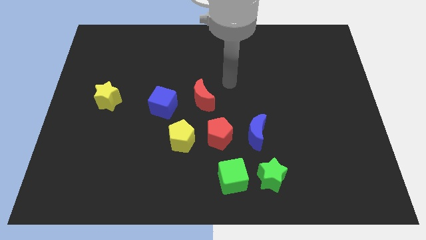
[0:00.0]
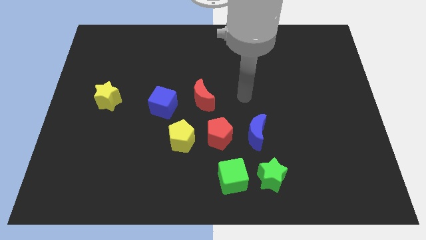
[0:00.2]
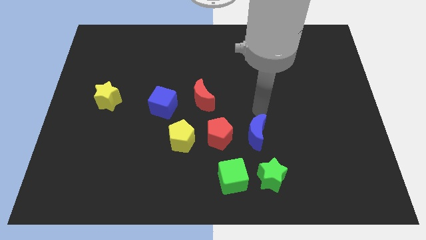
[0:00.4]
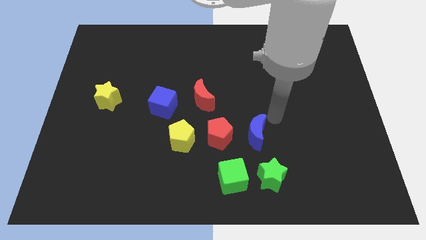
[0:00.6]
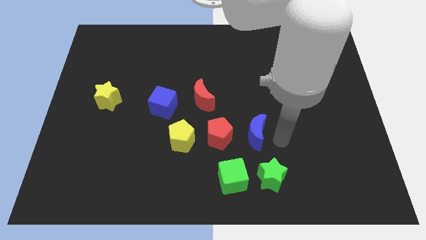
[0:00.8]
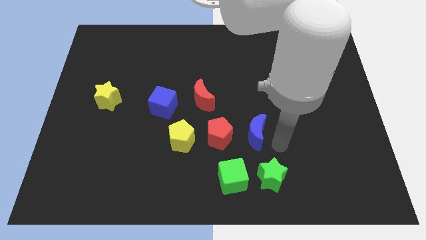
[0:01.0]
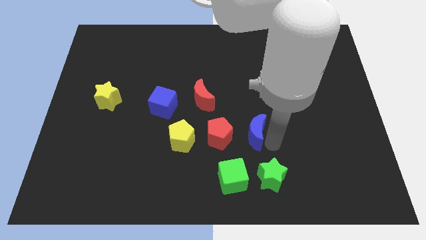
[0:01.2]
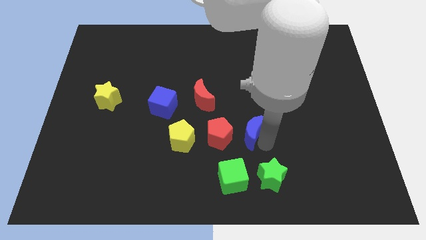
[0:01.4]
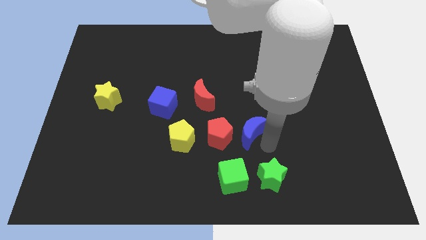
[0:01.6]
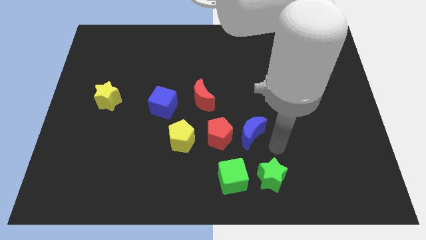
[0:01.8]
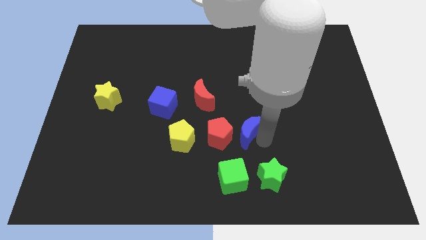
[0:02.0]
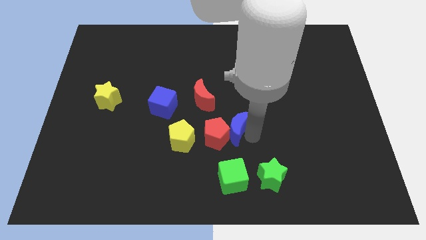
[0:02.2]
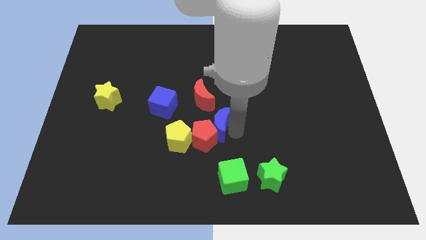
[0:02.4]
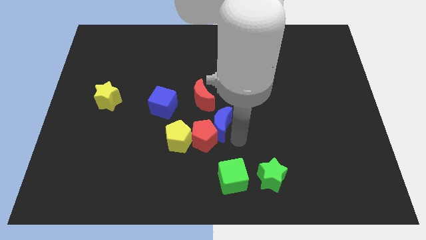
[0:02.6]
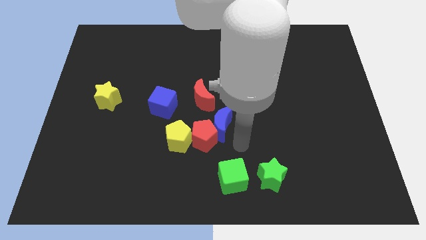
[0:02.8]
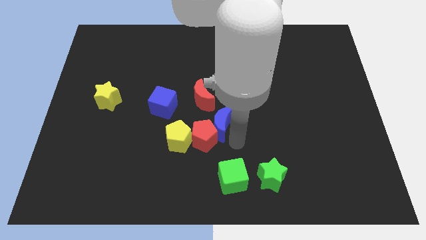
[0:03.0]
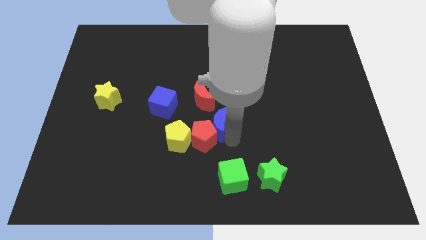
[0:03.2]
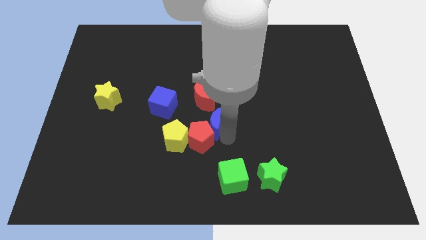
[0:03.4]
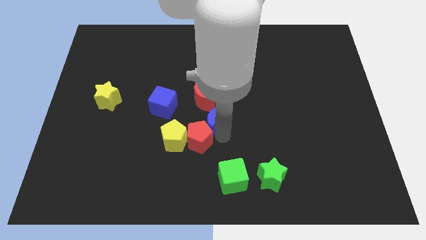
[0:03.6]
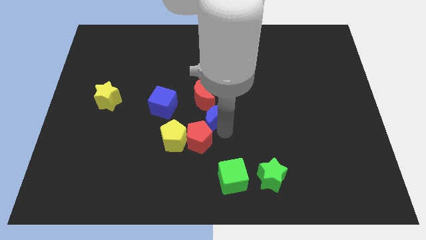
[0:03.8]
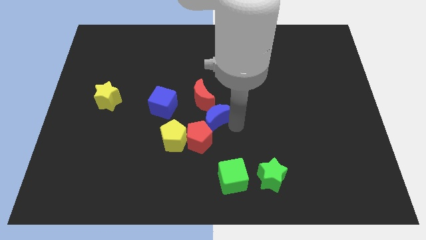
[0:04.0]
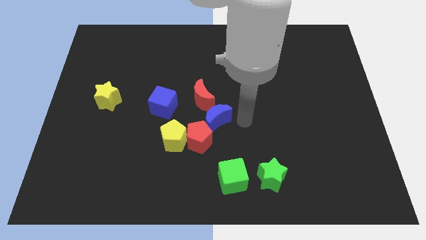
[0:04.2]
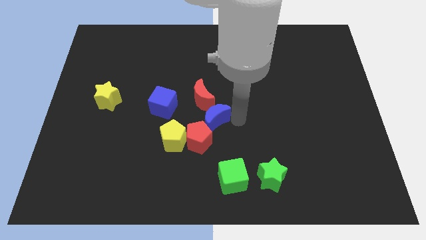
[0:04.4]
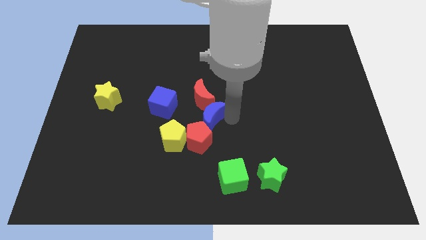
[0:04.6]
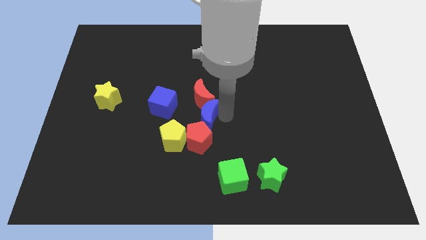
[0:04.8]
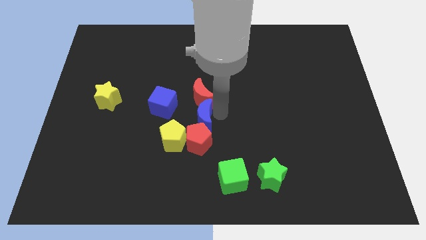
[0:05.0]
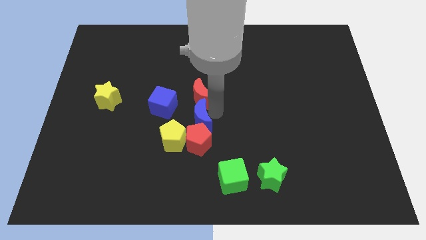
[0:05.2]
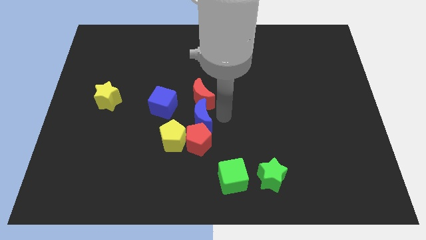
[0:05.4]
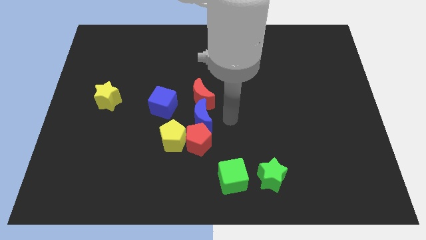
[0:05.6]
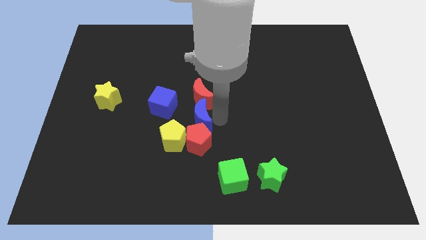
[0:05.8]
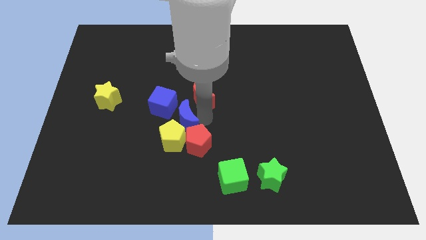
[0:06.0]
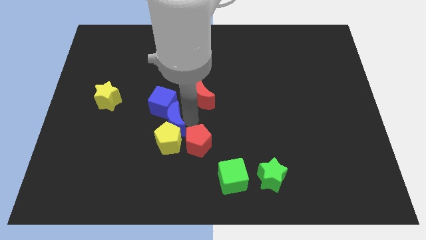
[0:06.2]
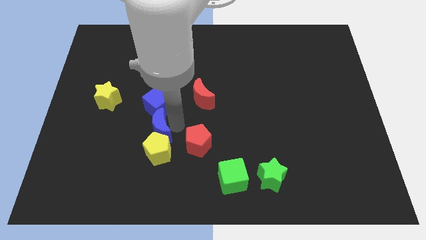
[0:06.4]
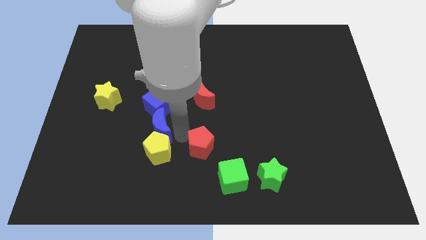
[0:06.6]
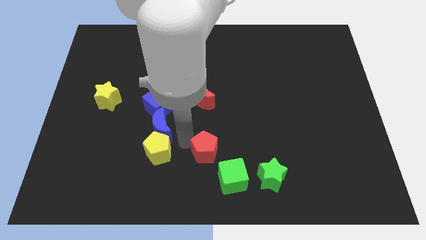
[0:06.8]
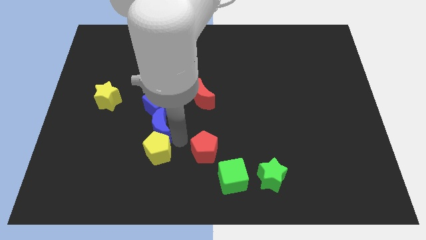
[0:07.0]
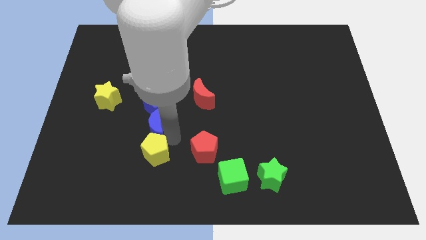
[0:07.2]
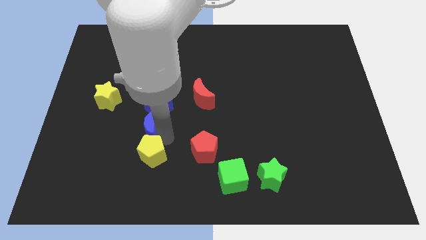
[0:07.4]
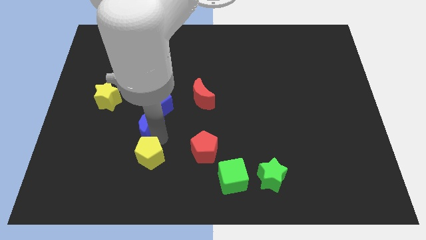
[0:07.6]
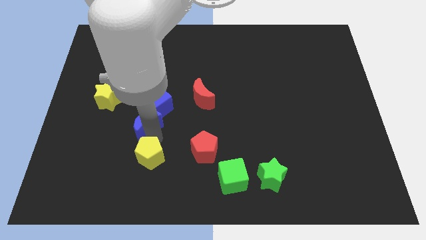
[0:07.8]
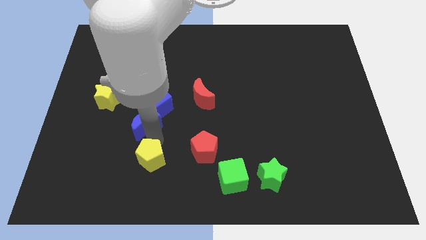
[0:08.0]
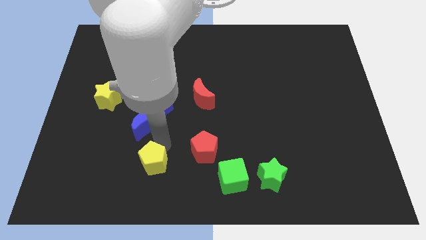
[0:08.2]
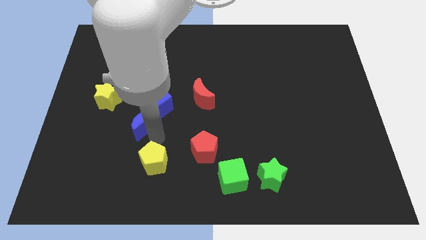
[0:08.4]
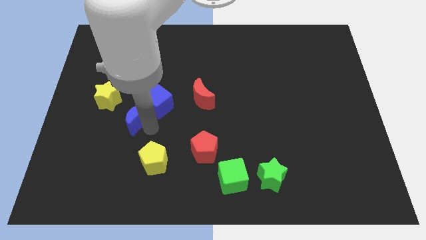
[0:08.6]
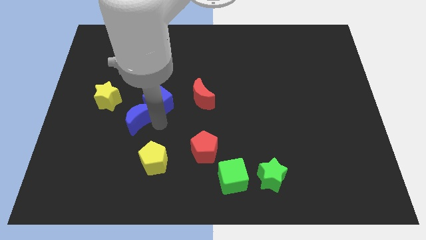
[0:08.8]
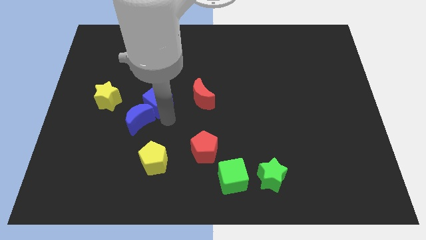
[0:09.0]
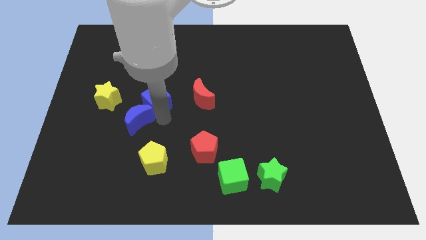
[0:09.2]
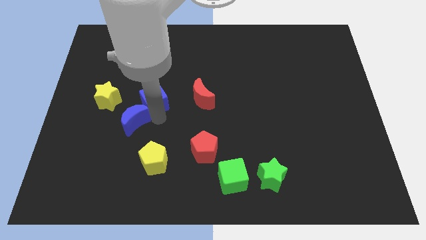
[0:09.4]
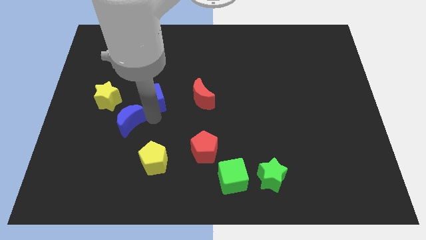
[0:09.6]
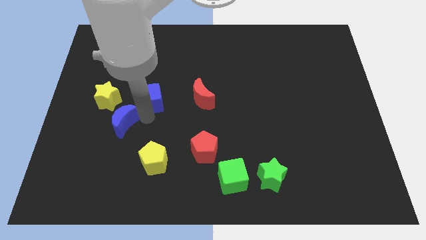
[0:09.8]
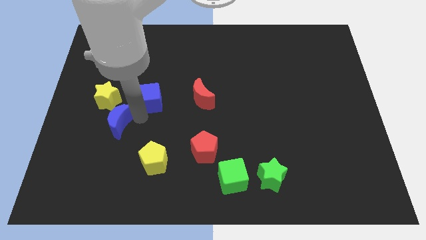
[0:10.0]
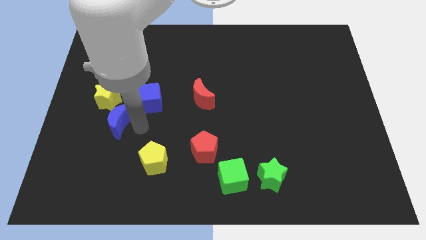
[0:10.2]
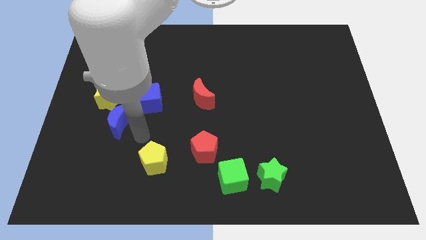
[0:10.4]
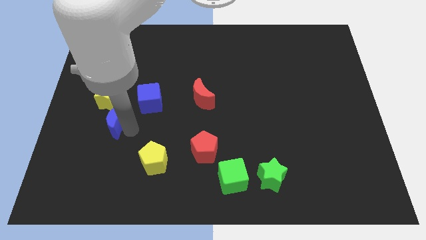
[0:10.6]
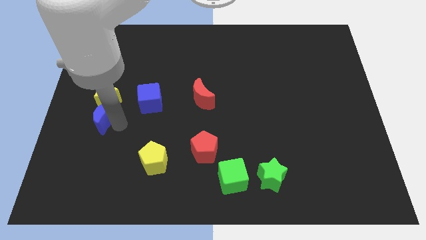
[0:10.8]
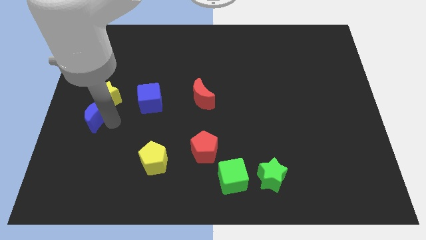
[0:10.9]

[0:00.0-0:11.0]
move the blue moon to the left side of the board
